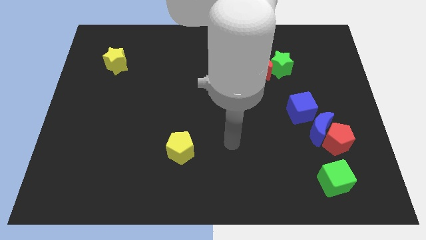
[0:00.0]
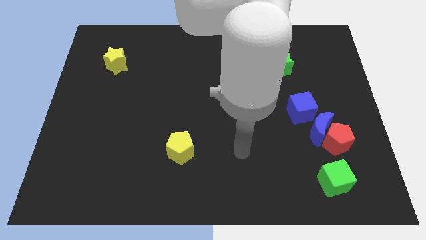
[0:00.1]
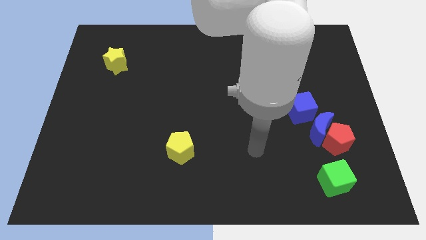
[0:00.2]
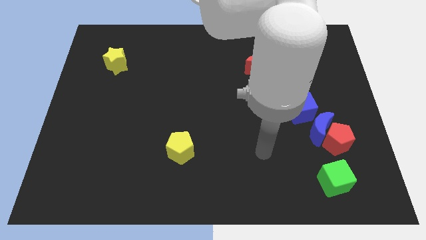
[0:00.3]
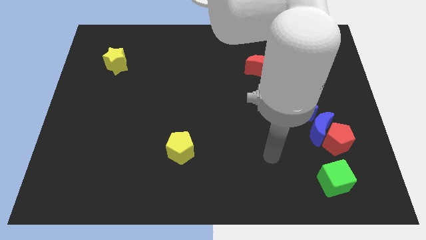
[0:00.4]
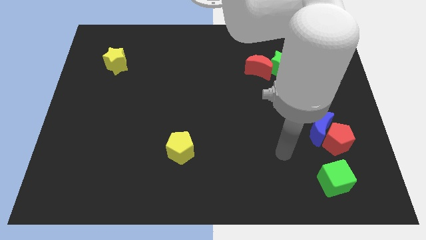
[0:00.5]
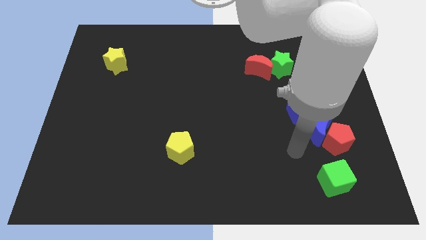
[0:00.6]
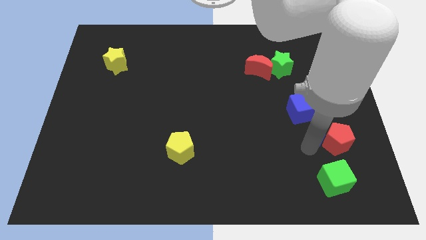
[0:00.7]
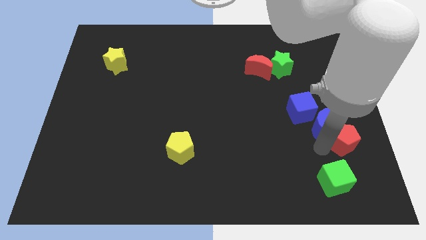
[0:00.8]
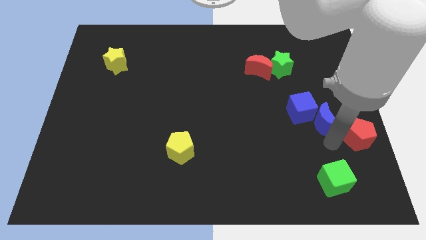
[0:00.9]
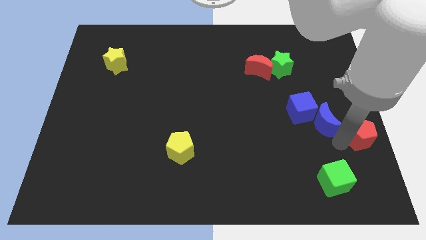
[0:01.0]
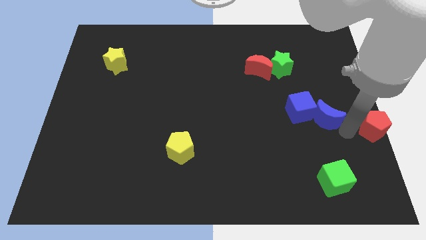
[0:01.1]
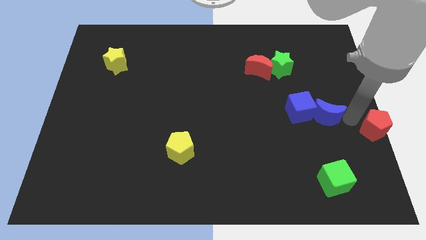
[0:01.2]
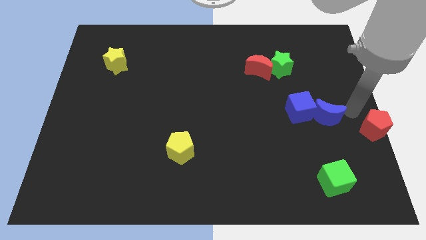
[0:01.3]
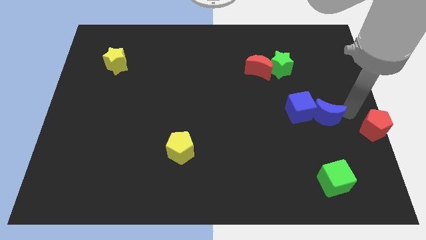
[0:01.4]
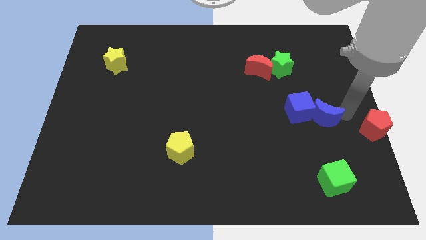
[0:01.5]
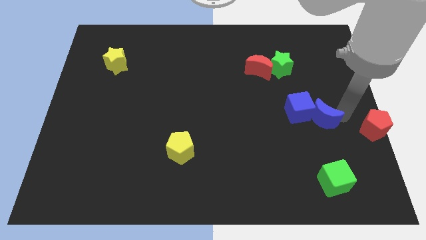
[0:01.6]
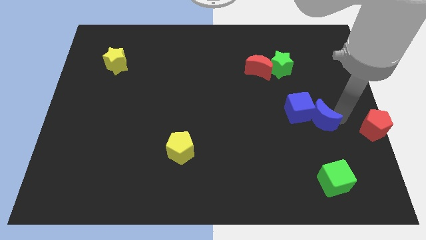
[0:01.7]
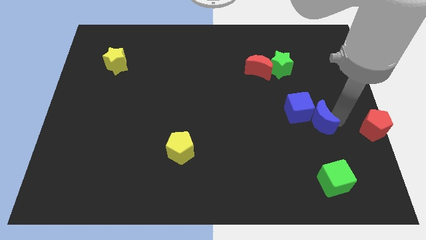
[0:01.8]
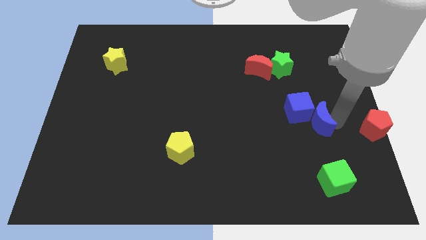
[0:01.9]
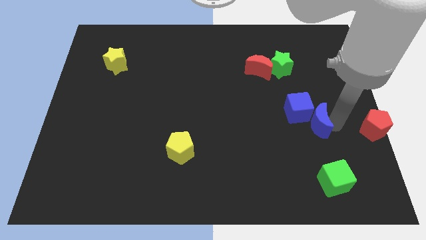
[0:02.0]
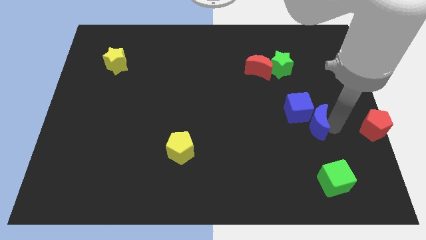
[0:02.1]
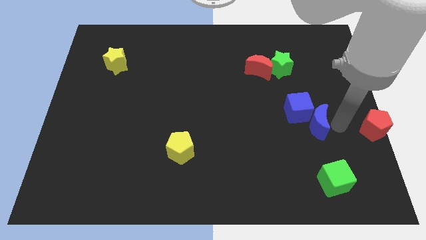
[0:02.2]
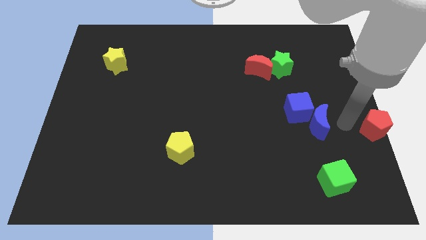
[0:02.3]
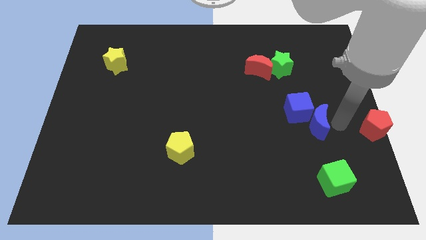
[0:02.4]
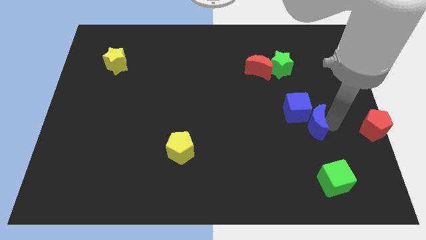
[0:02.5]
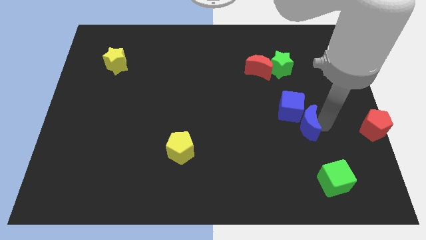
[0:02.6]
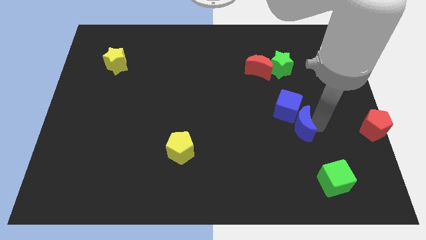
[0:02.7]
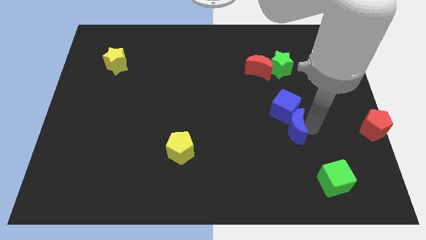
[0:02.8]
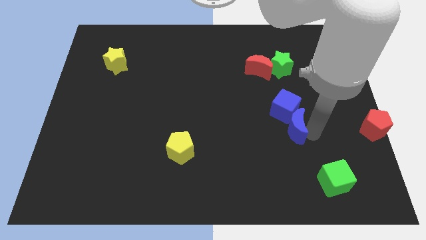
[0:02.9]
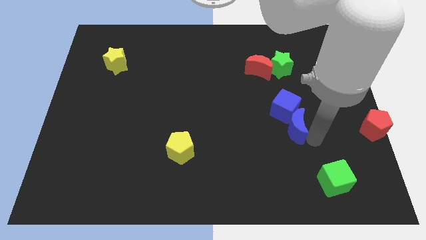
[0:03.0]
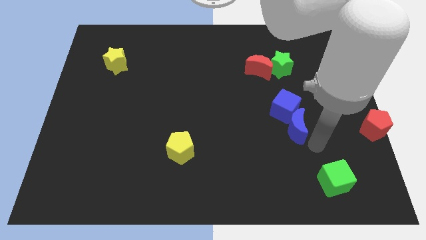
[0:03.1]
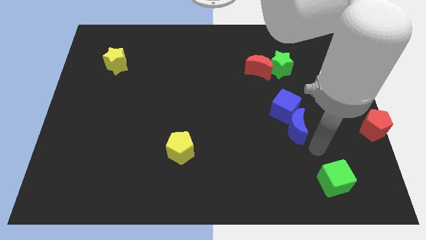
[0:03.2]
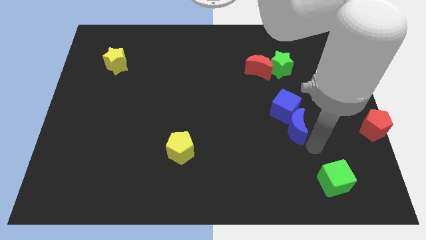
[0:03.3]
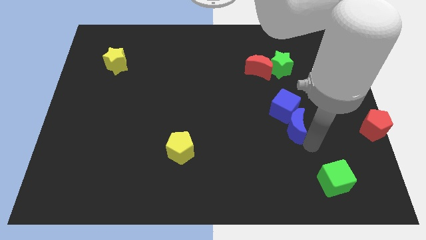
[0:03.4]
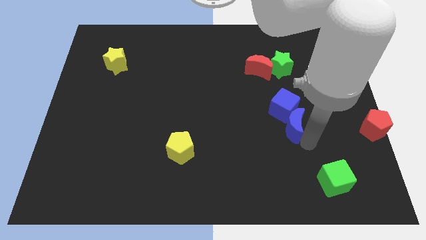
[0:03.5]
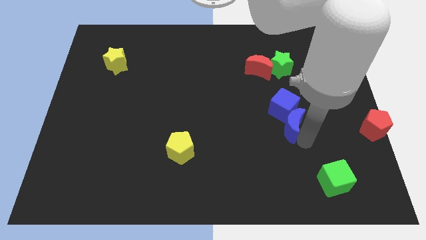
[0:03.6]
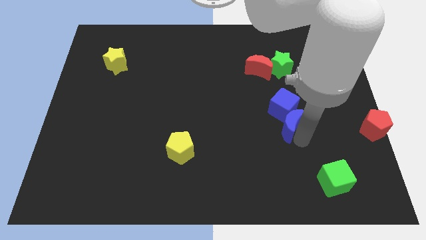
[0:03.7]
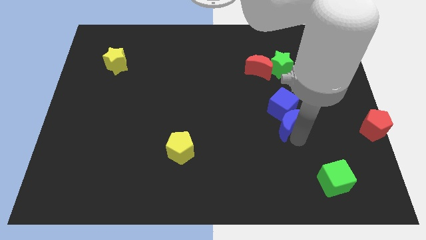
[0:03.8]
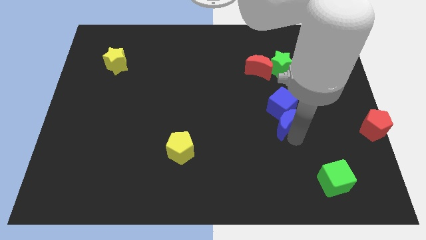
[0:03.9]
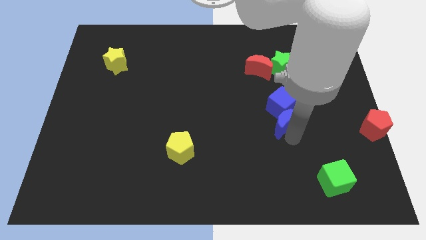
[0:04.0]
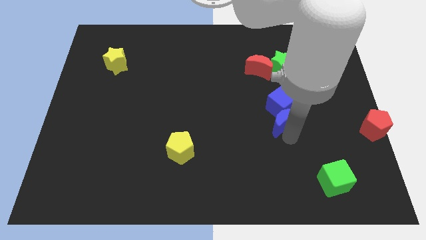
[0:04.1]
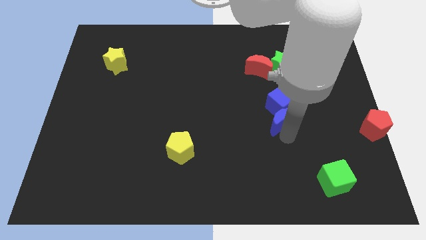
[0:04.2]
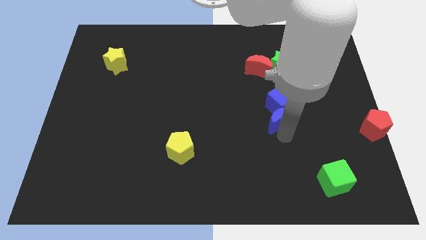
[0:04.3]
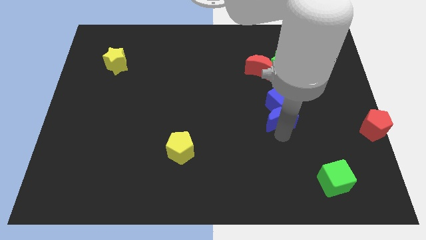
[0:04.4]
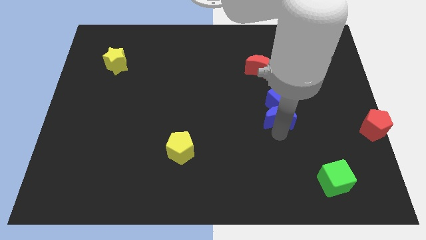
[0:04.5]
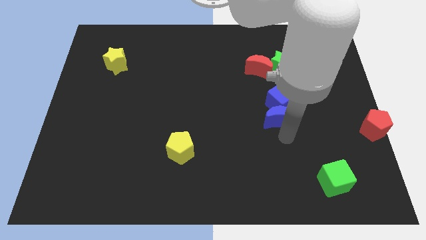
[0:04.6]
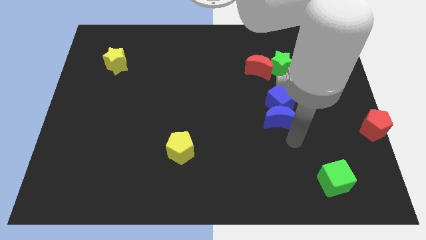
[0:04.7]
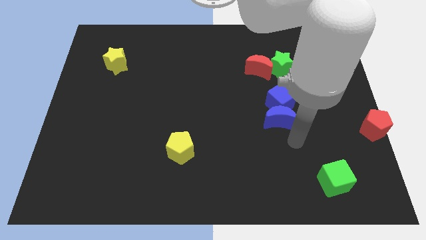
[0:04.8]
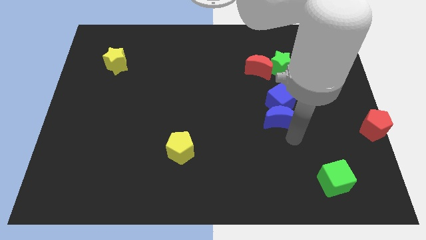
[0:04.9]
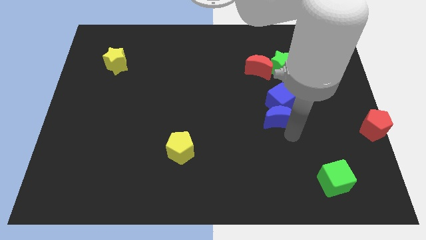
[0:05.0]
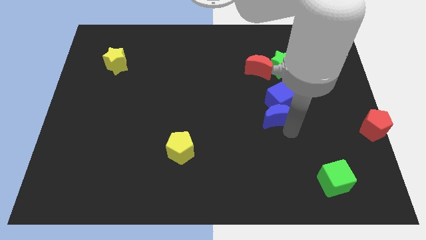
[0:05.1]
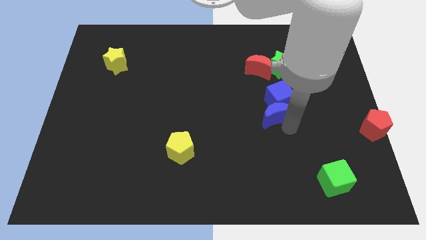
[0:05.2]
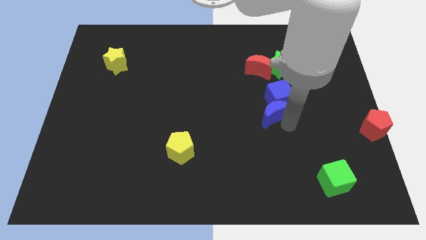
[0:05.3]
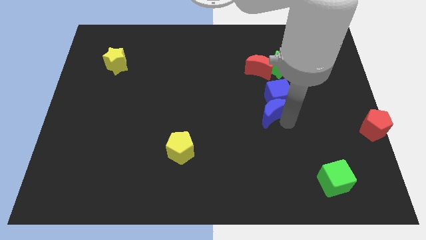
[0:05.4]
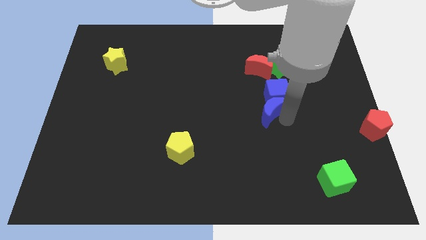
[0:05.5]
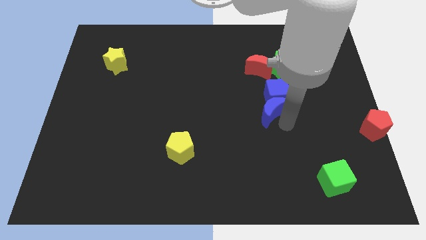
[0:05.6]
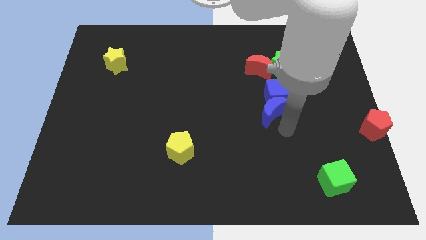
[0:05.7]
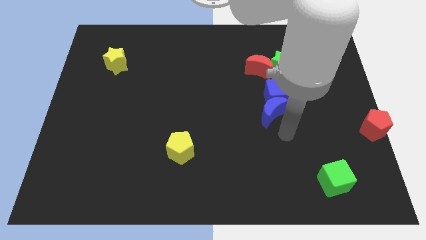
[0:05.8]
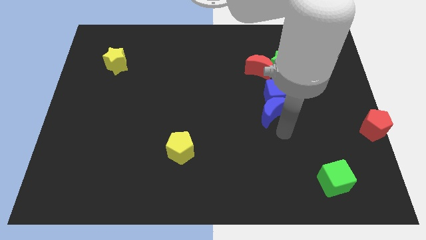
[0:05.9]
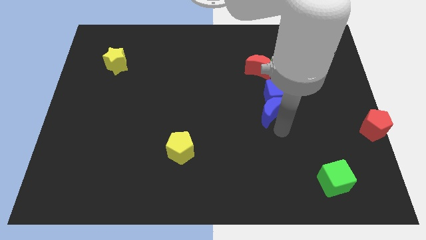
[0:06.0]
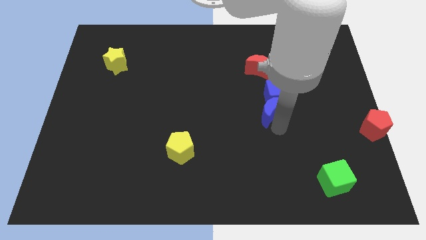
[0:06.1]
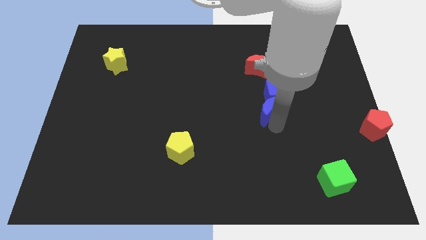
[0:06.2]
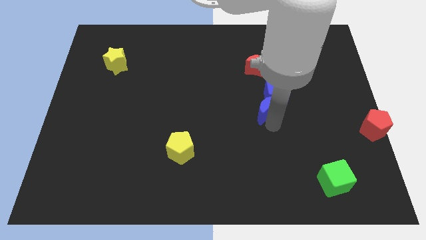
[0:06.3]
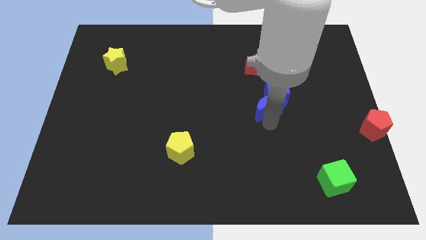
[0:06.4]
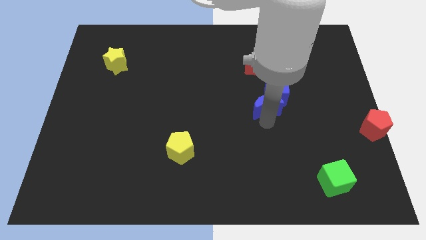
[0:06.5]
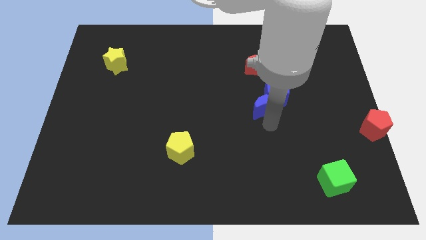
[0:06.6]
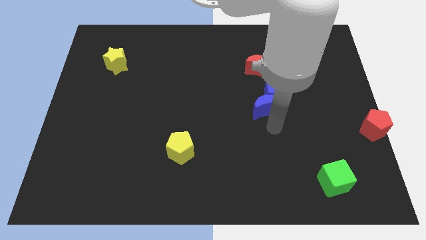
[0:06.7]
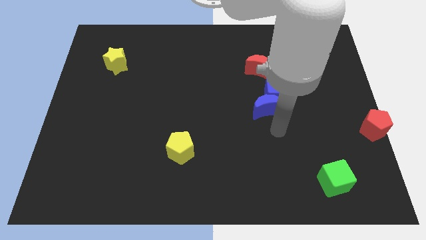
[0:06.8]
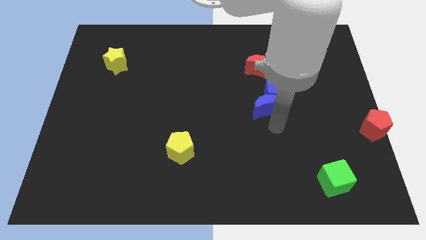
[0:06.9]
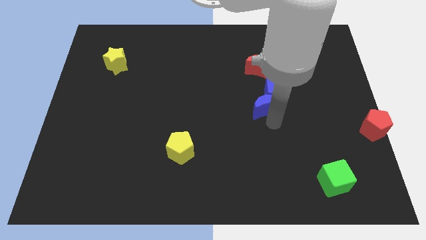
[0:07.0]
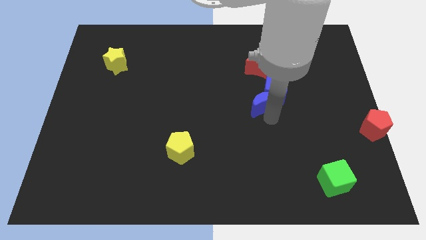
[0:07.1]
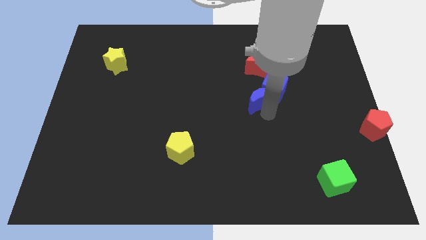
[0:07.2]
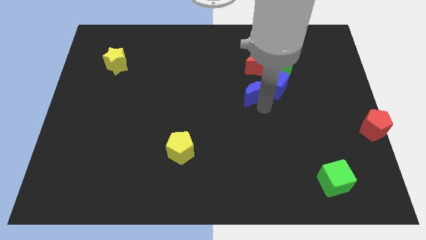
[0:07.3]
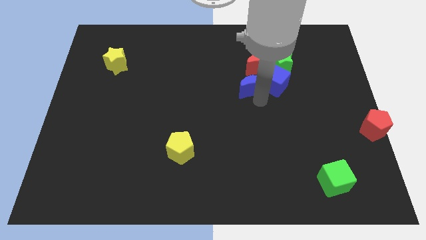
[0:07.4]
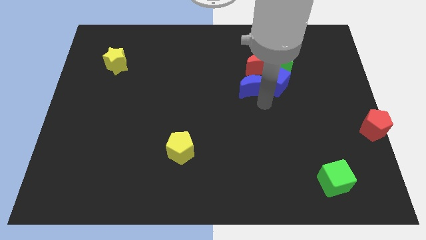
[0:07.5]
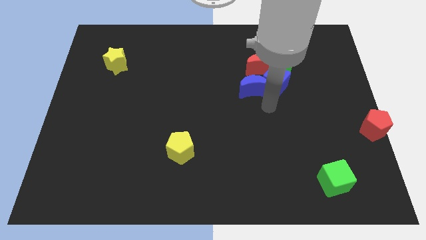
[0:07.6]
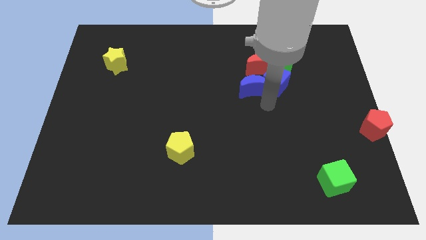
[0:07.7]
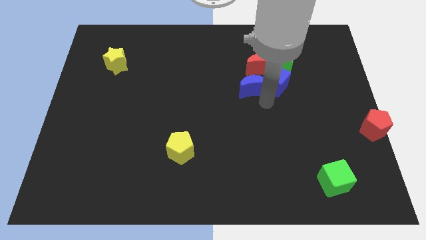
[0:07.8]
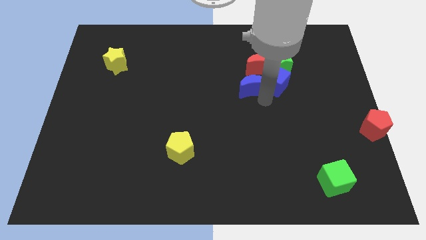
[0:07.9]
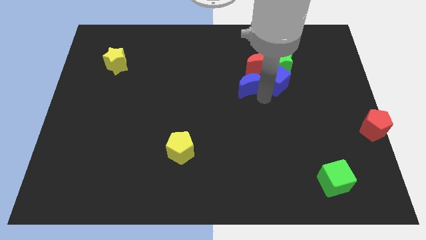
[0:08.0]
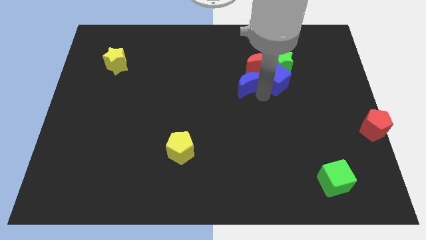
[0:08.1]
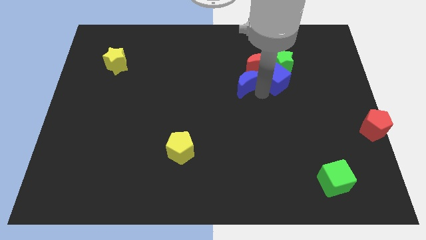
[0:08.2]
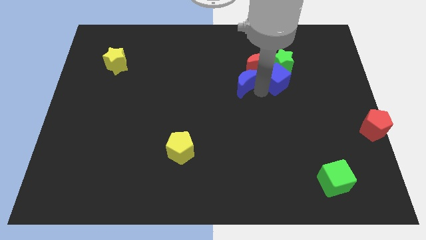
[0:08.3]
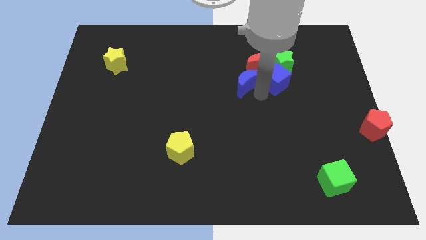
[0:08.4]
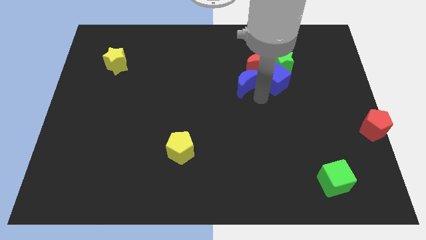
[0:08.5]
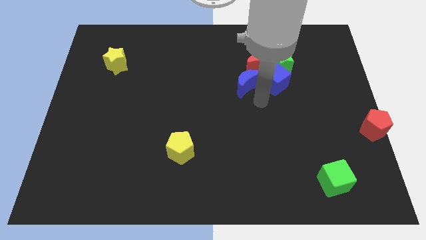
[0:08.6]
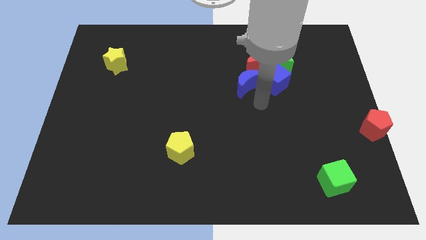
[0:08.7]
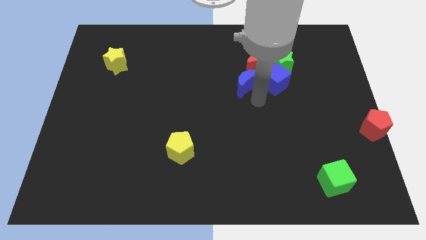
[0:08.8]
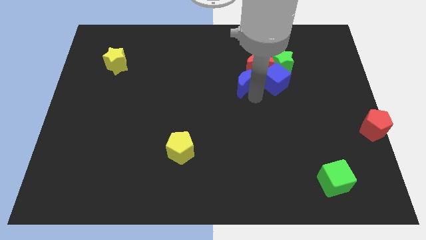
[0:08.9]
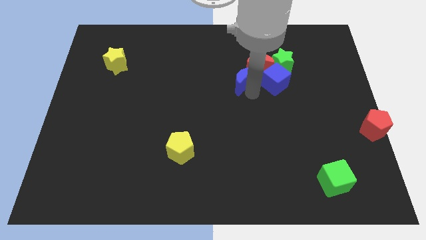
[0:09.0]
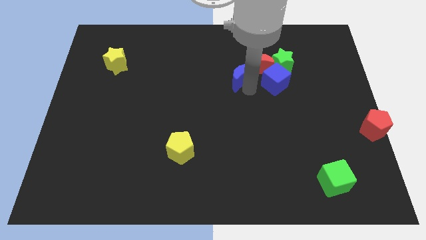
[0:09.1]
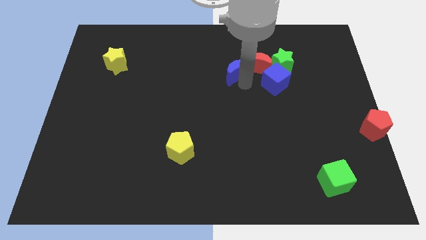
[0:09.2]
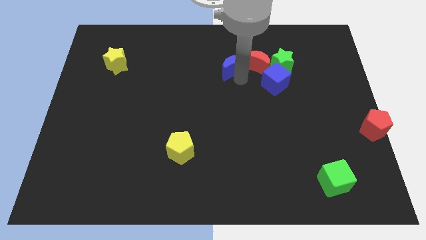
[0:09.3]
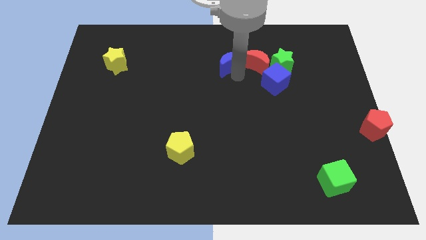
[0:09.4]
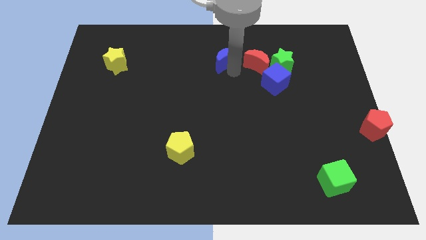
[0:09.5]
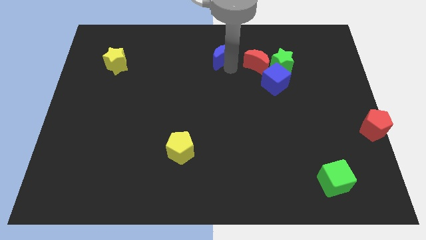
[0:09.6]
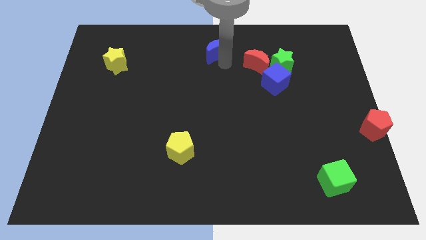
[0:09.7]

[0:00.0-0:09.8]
put the blue moon to the top
